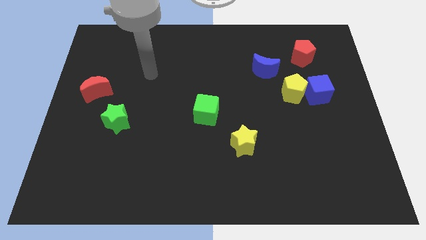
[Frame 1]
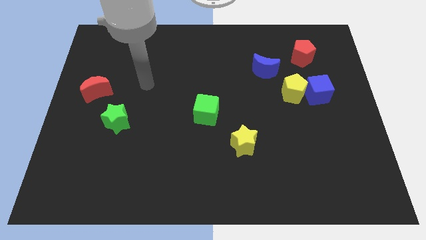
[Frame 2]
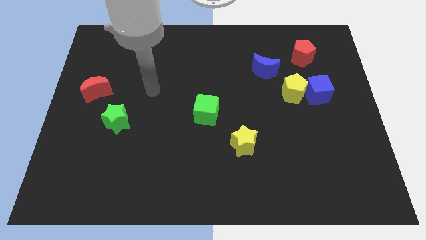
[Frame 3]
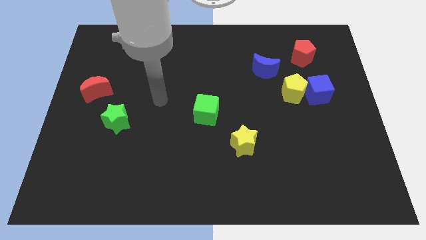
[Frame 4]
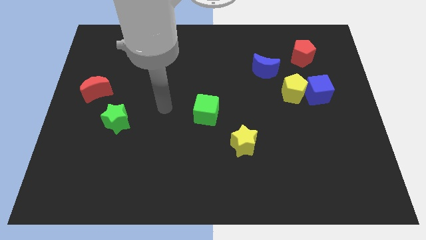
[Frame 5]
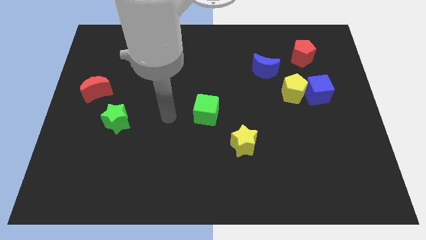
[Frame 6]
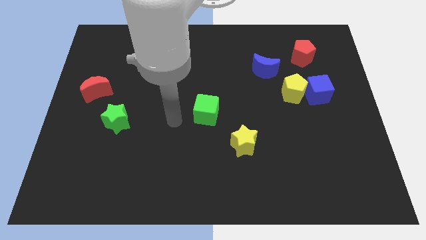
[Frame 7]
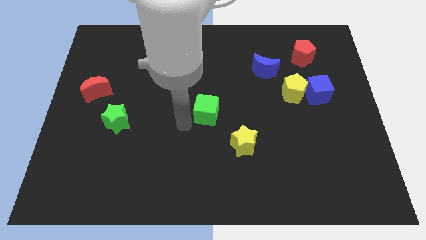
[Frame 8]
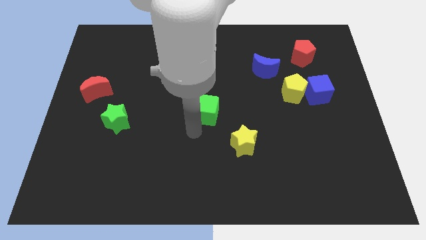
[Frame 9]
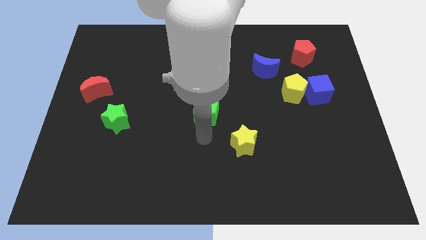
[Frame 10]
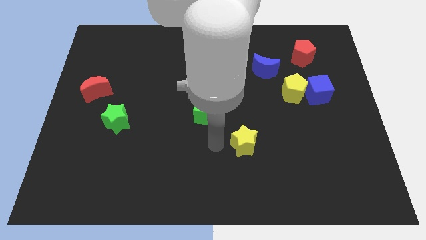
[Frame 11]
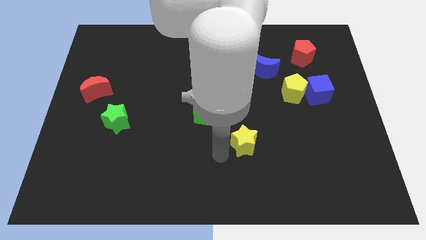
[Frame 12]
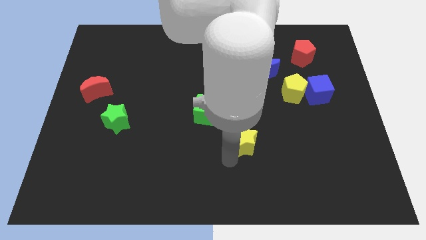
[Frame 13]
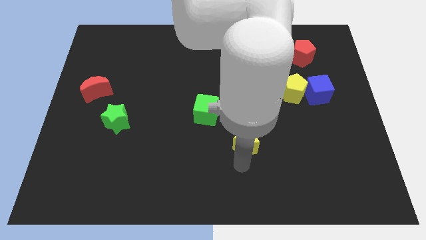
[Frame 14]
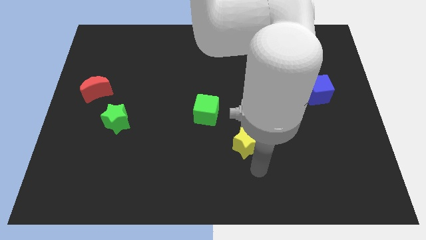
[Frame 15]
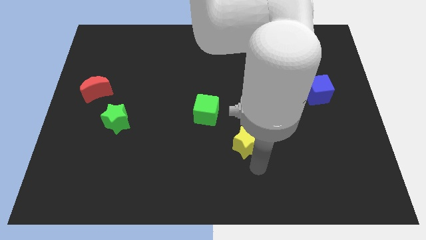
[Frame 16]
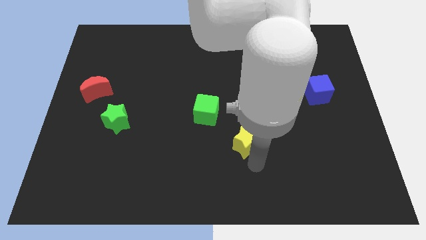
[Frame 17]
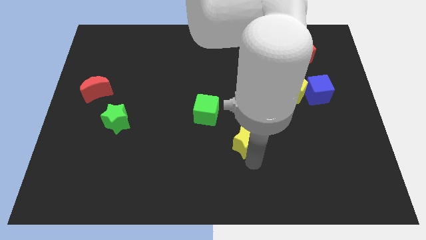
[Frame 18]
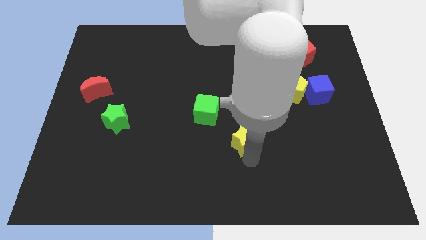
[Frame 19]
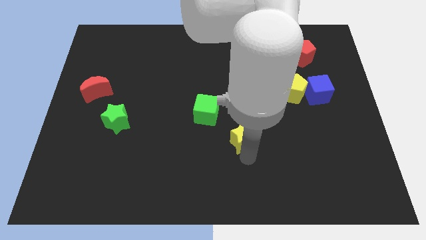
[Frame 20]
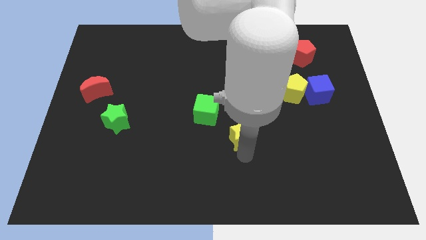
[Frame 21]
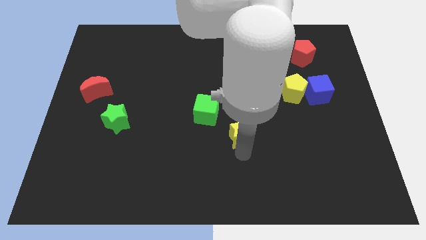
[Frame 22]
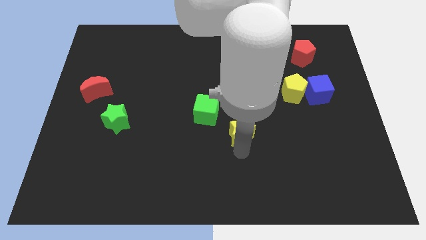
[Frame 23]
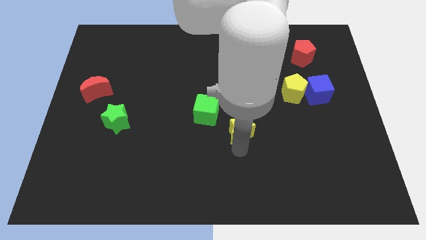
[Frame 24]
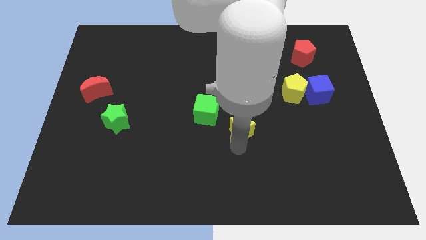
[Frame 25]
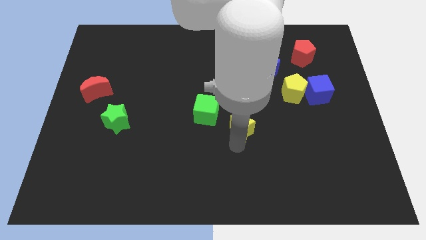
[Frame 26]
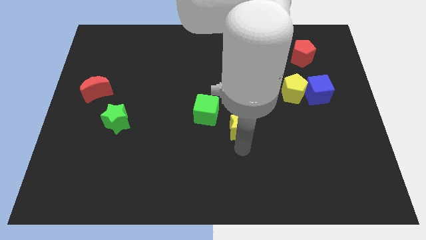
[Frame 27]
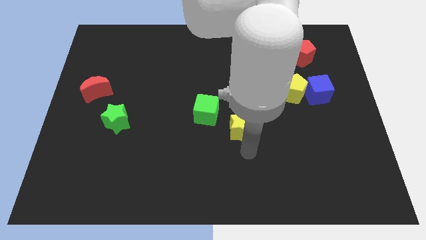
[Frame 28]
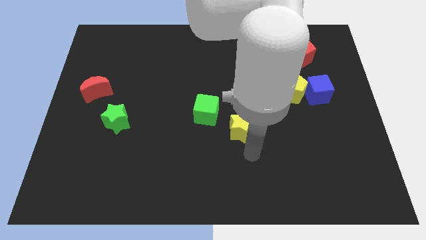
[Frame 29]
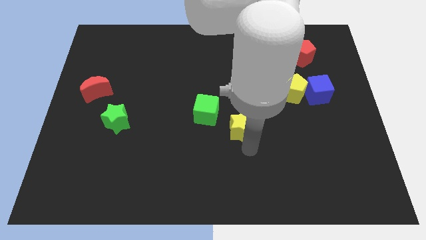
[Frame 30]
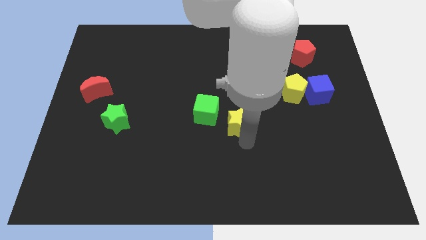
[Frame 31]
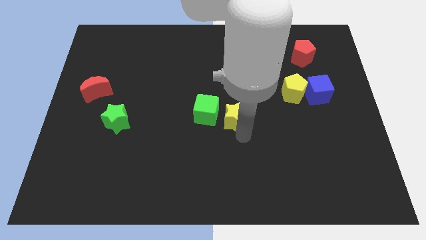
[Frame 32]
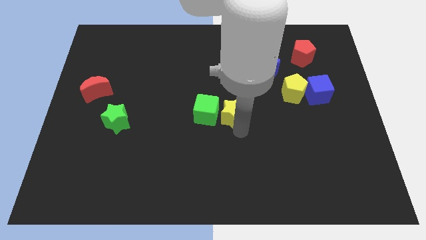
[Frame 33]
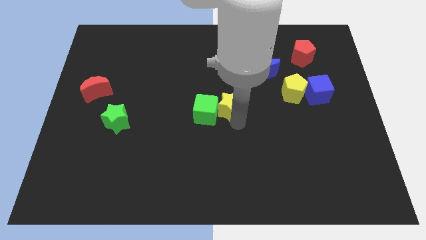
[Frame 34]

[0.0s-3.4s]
slightly slide the yellow star up and left

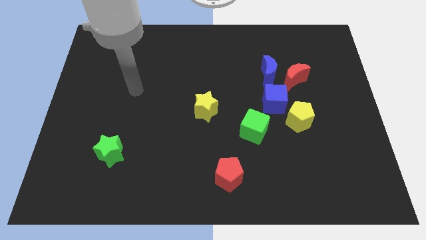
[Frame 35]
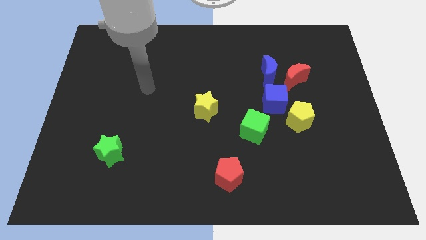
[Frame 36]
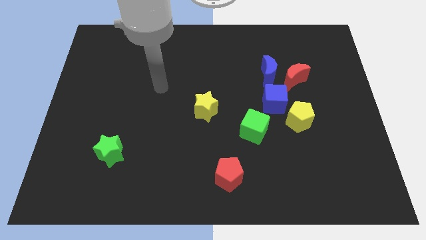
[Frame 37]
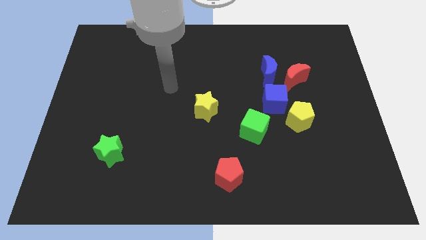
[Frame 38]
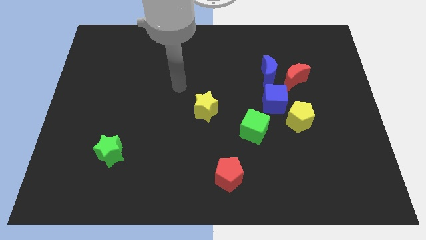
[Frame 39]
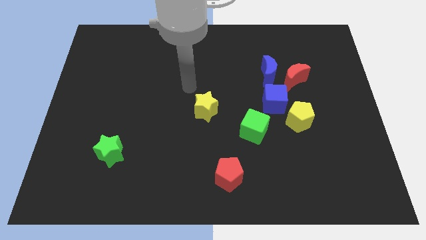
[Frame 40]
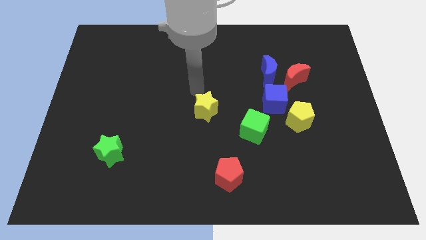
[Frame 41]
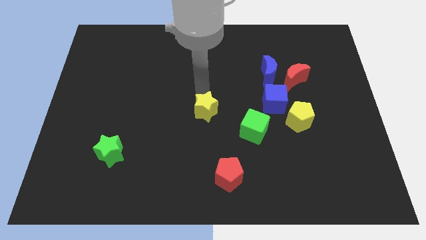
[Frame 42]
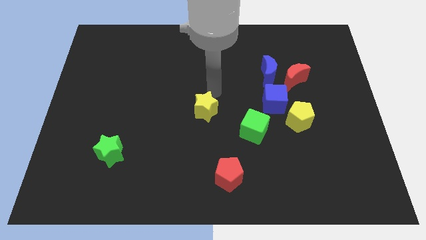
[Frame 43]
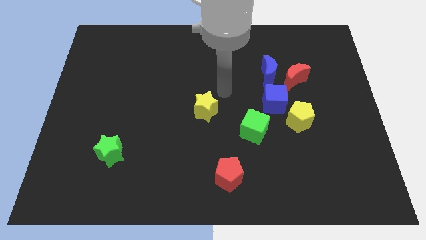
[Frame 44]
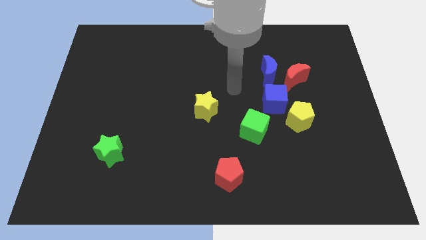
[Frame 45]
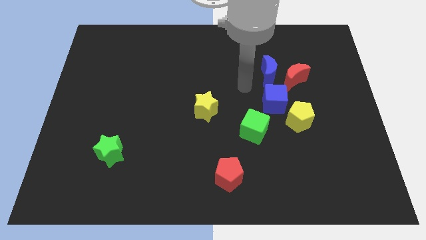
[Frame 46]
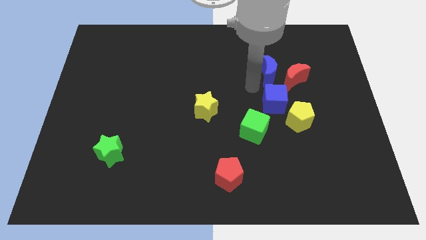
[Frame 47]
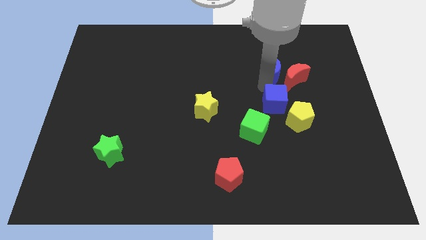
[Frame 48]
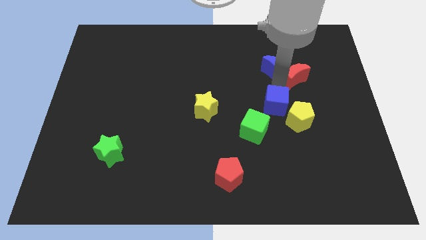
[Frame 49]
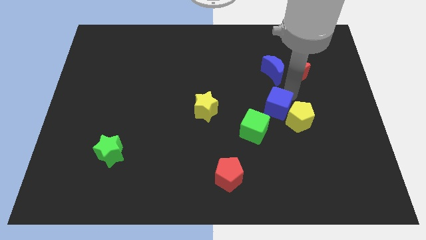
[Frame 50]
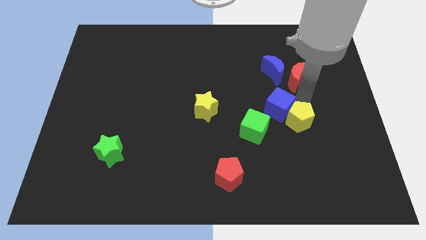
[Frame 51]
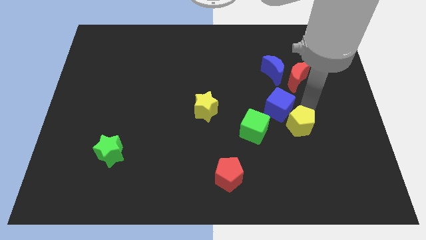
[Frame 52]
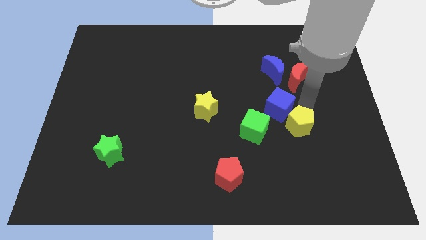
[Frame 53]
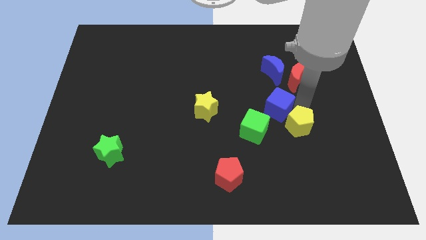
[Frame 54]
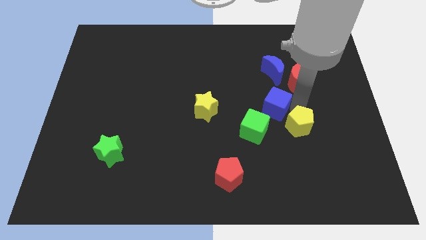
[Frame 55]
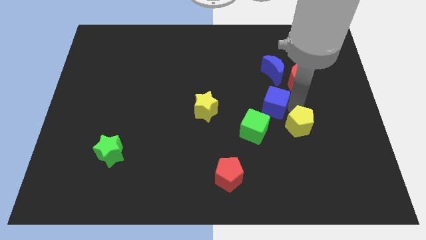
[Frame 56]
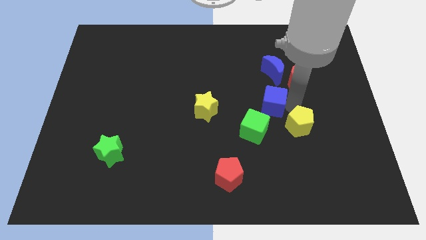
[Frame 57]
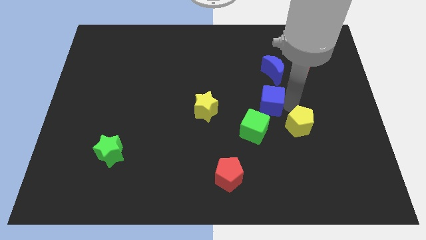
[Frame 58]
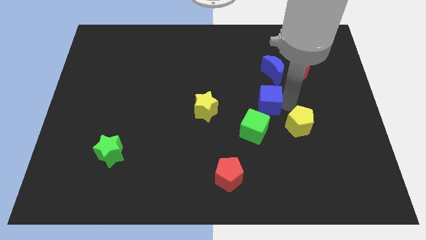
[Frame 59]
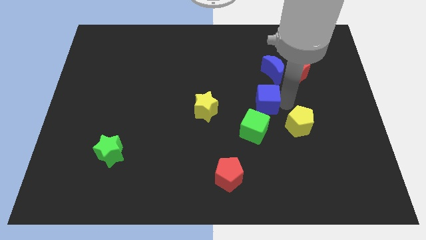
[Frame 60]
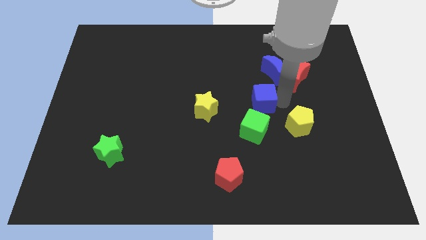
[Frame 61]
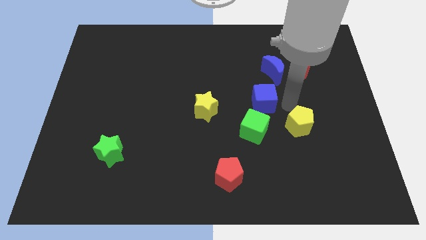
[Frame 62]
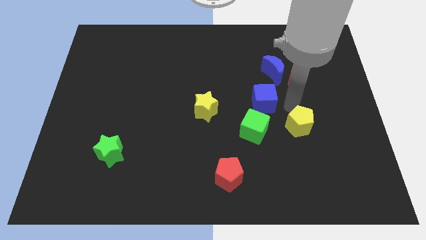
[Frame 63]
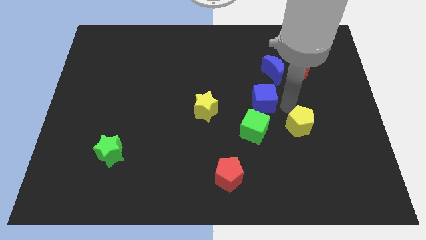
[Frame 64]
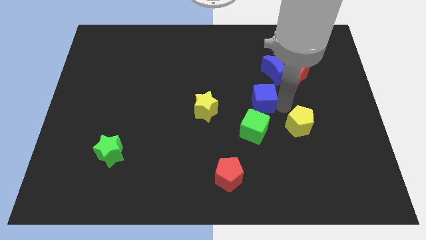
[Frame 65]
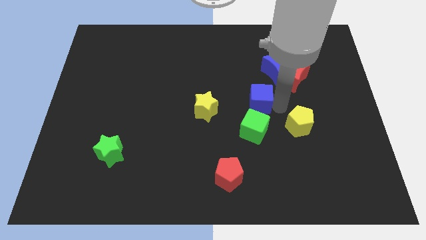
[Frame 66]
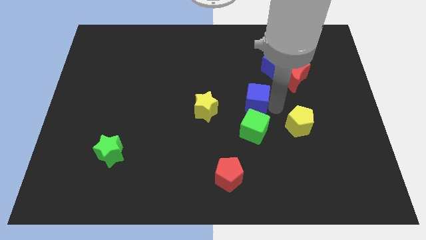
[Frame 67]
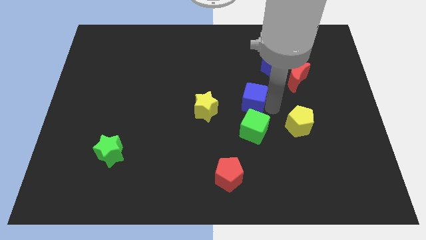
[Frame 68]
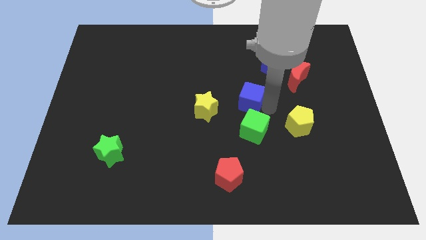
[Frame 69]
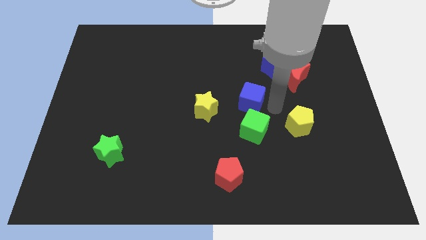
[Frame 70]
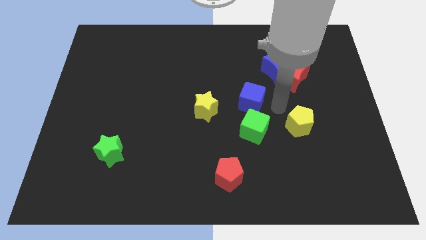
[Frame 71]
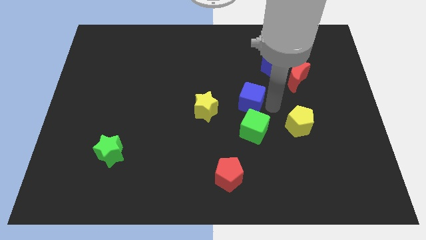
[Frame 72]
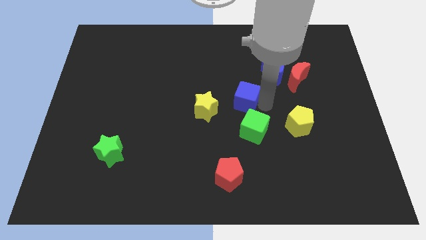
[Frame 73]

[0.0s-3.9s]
push the blue cube slightly to the left

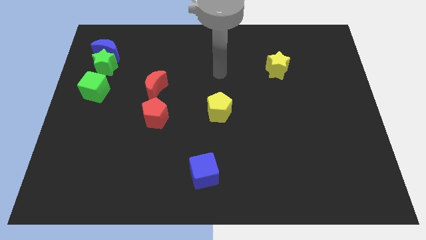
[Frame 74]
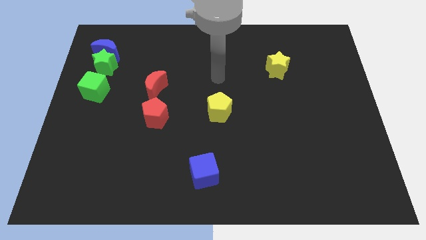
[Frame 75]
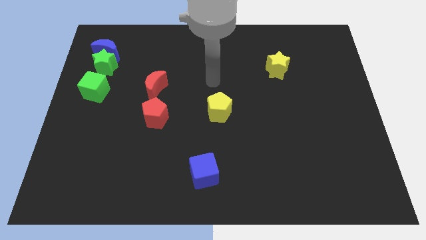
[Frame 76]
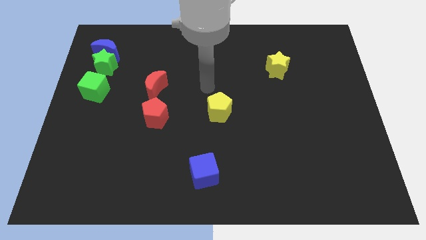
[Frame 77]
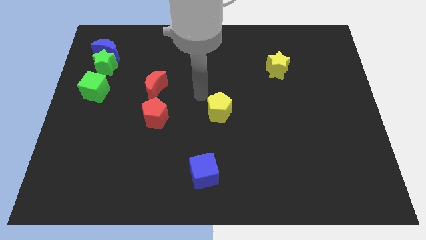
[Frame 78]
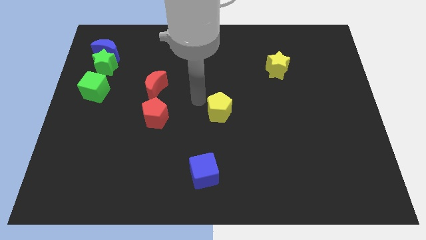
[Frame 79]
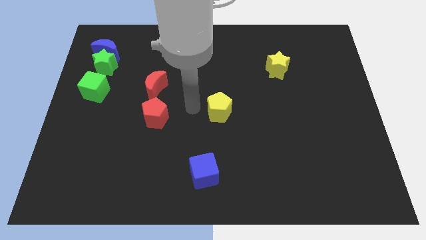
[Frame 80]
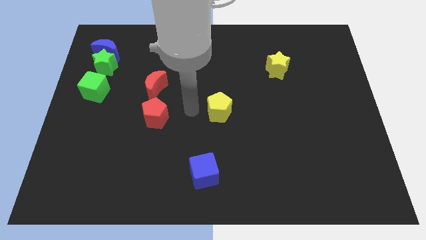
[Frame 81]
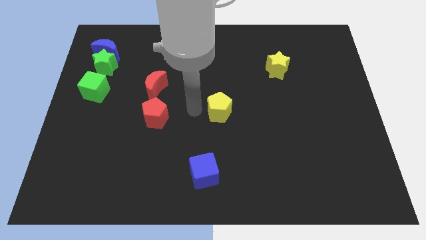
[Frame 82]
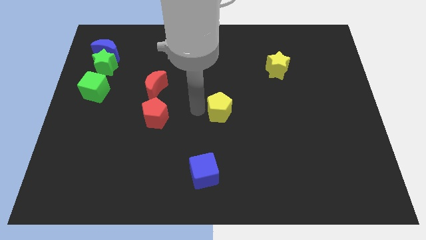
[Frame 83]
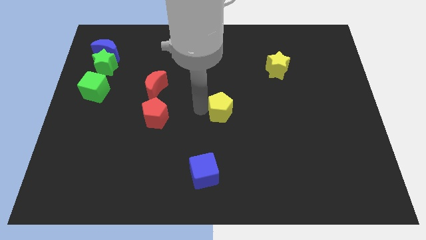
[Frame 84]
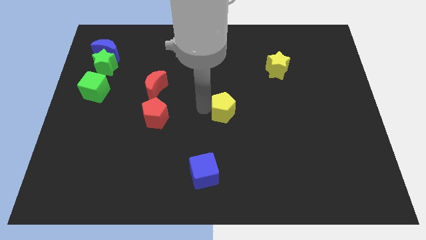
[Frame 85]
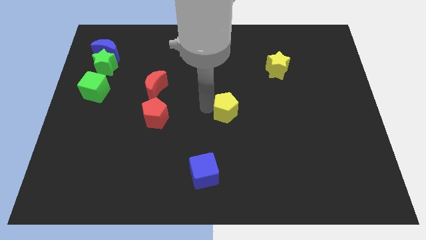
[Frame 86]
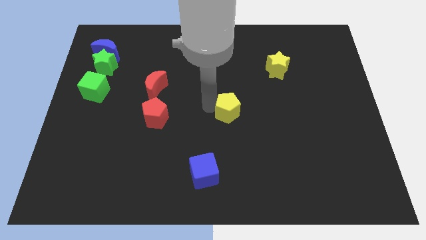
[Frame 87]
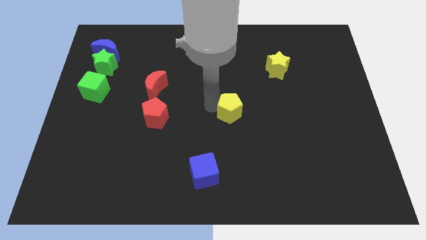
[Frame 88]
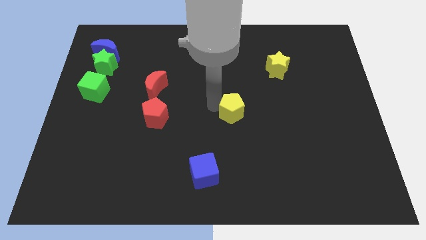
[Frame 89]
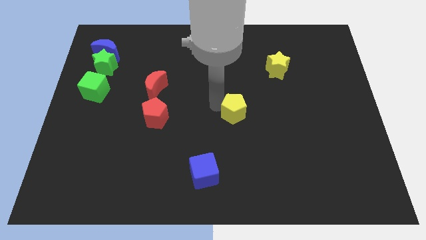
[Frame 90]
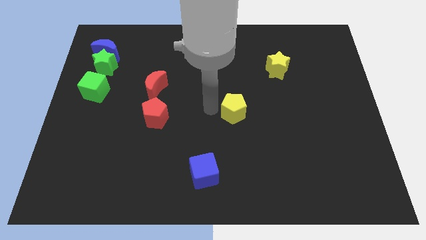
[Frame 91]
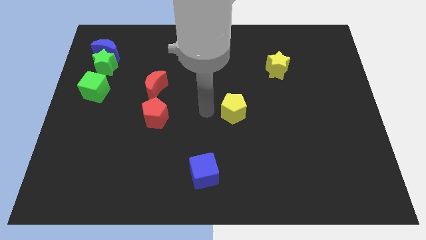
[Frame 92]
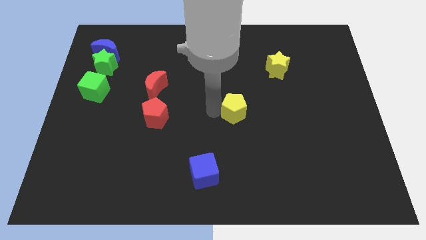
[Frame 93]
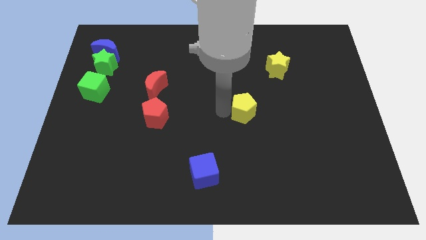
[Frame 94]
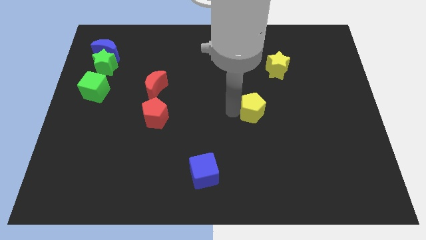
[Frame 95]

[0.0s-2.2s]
slide the yellow pentagon somewhat right
